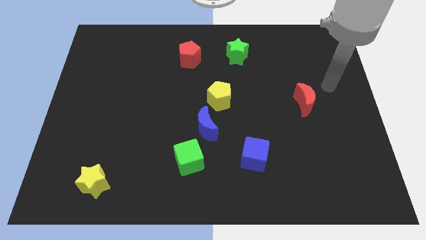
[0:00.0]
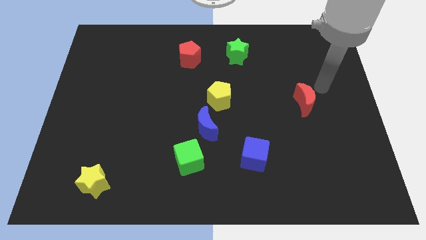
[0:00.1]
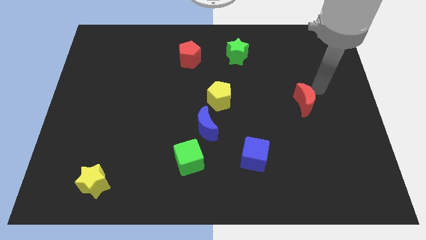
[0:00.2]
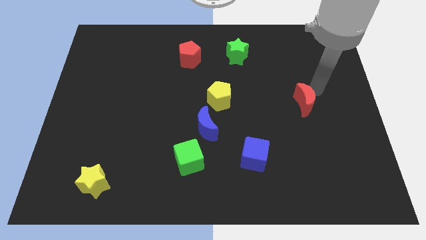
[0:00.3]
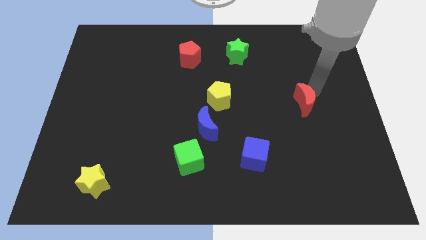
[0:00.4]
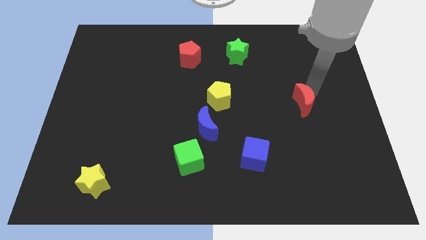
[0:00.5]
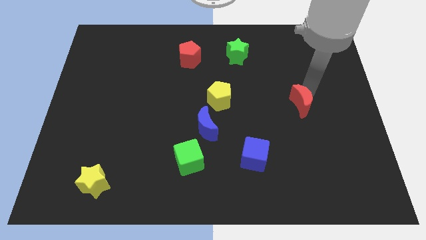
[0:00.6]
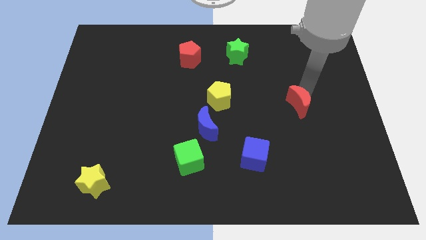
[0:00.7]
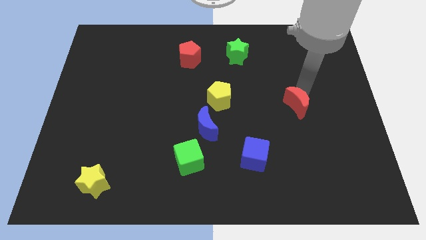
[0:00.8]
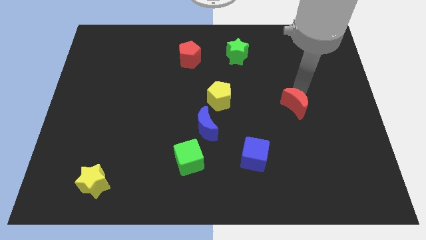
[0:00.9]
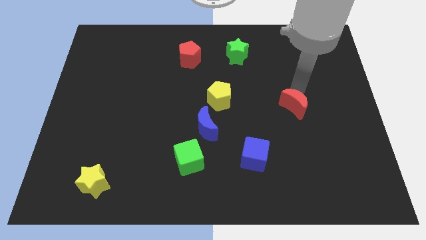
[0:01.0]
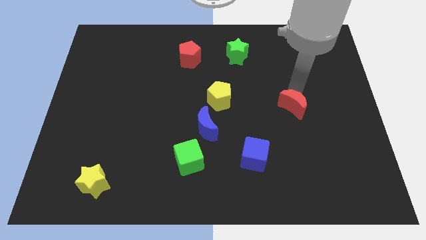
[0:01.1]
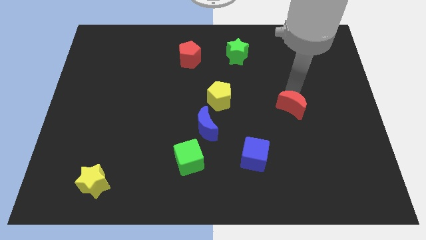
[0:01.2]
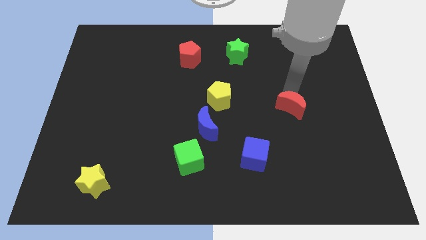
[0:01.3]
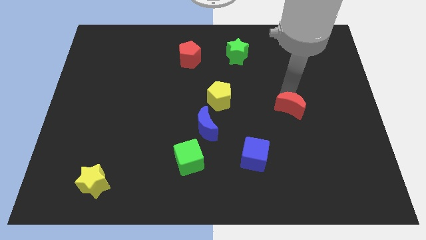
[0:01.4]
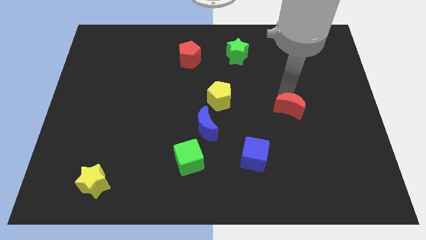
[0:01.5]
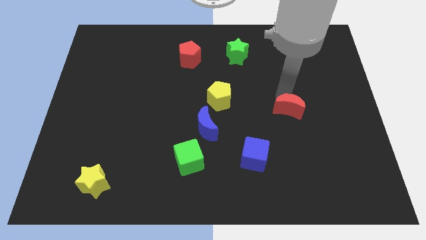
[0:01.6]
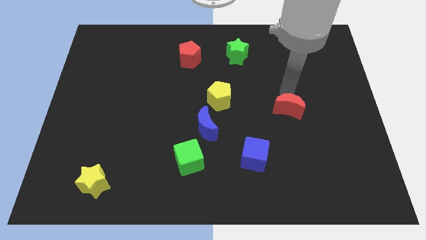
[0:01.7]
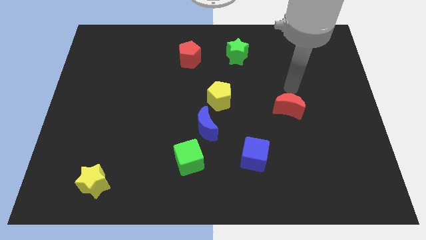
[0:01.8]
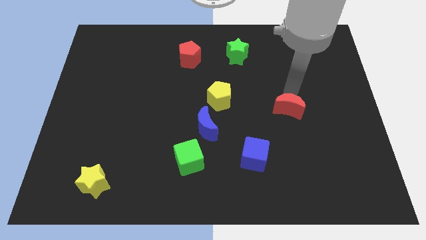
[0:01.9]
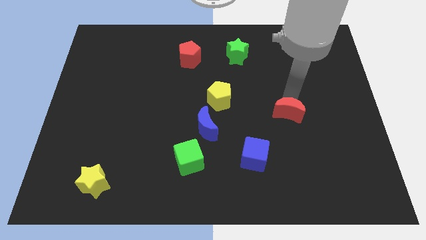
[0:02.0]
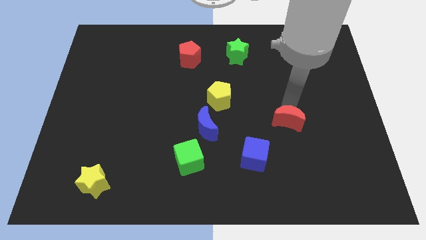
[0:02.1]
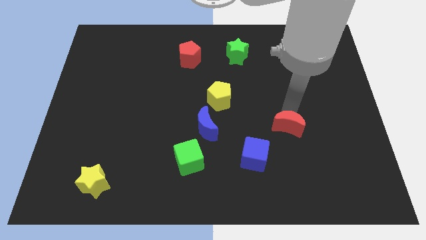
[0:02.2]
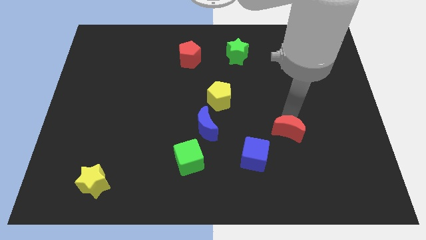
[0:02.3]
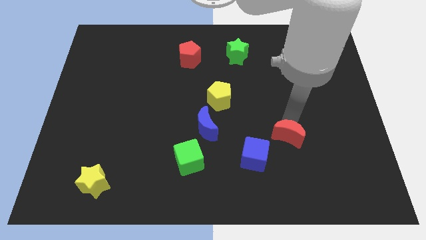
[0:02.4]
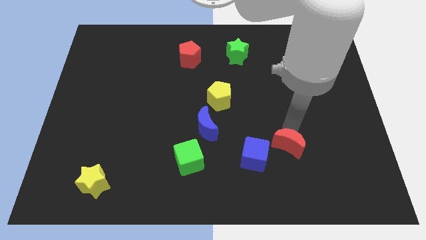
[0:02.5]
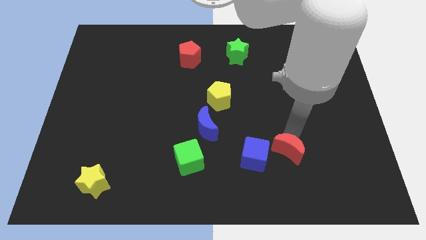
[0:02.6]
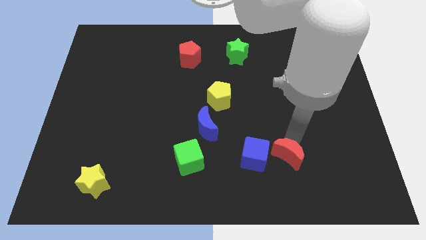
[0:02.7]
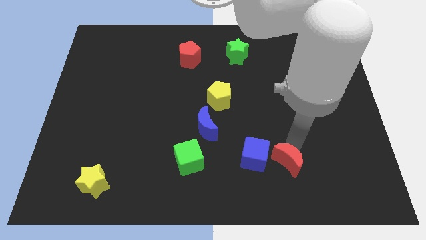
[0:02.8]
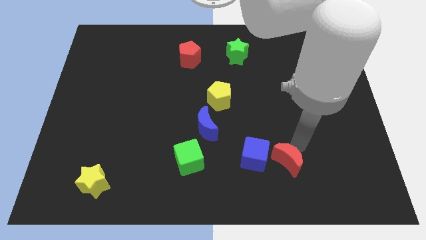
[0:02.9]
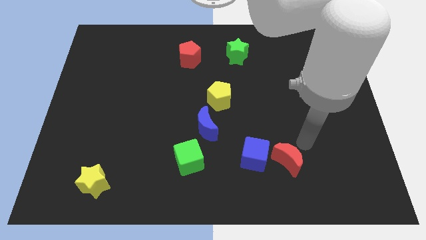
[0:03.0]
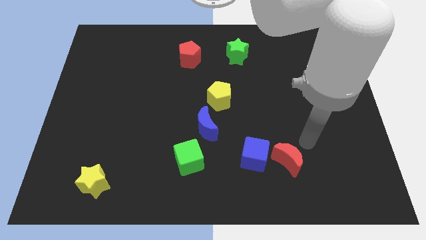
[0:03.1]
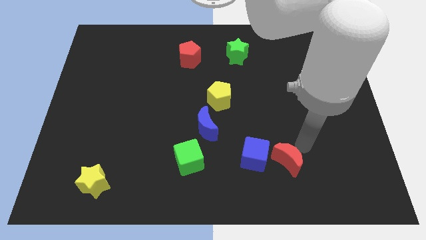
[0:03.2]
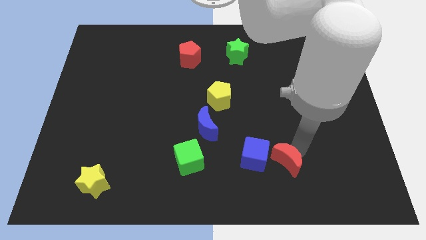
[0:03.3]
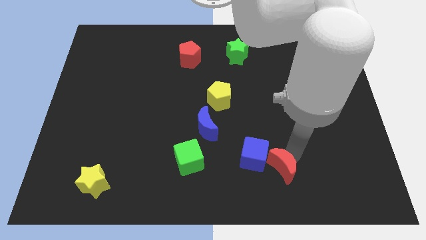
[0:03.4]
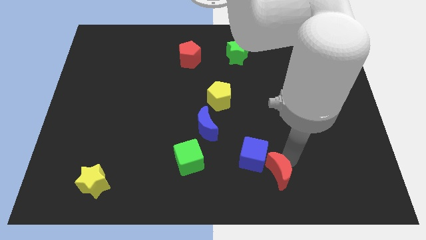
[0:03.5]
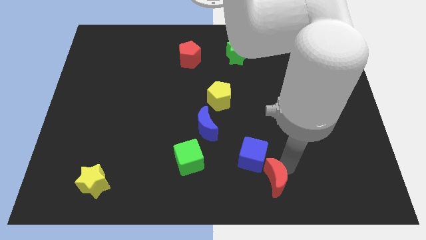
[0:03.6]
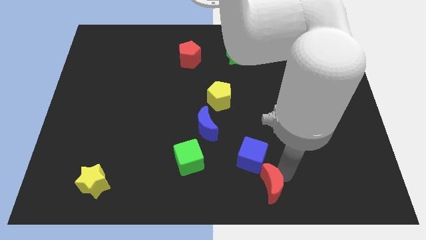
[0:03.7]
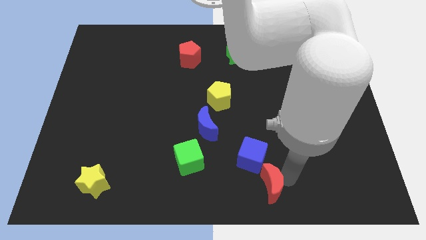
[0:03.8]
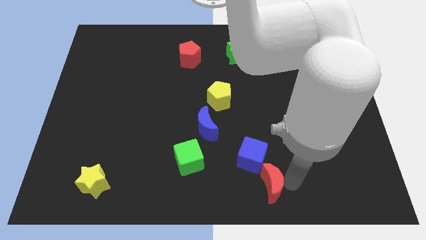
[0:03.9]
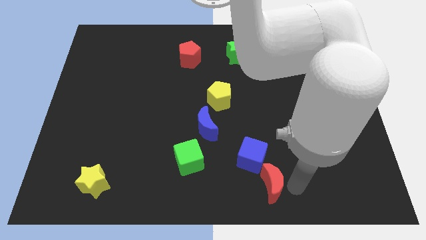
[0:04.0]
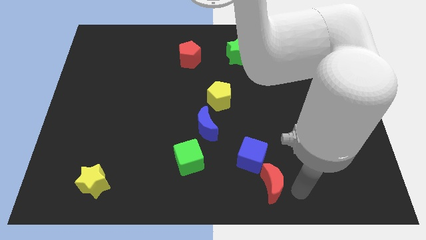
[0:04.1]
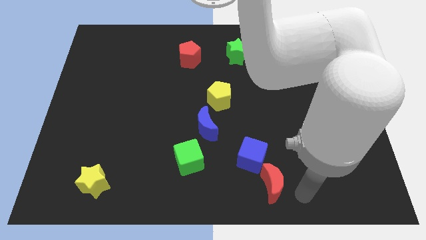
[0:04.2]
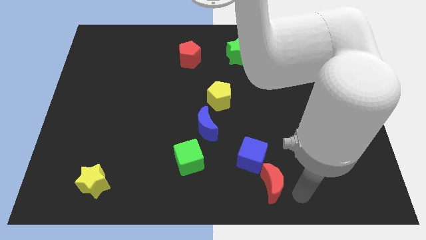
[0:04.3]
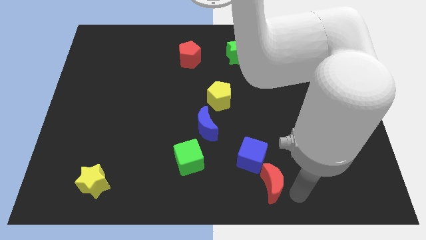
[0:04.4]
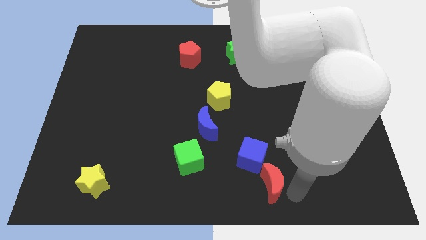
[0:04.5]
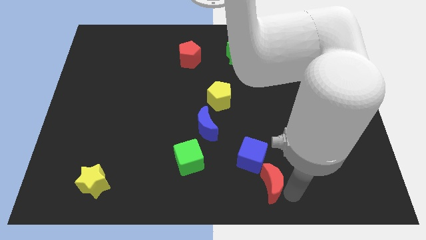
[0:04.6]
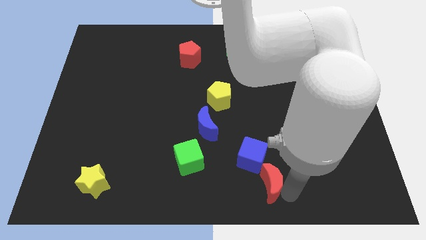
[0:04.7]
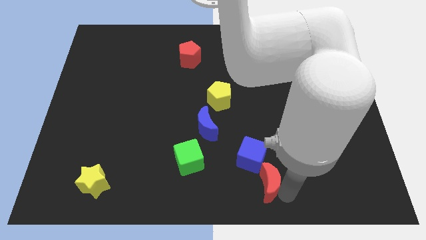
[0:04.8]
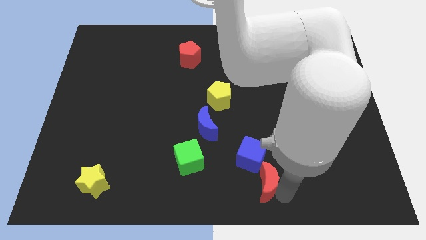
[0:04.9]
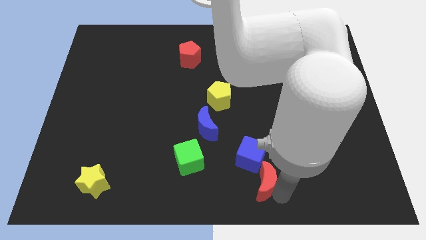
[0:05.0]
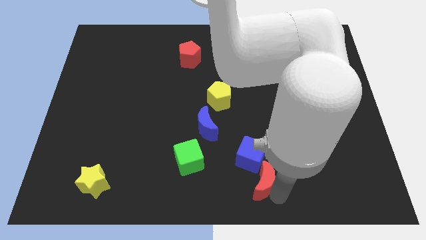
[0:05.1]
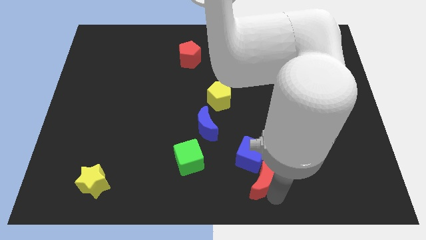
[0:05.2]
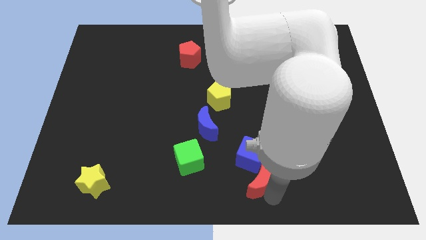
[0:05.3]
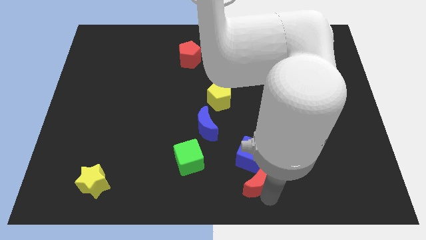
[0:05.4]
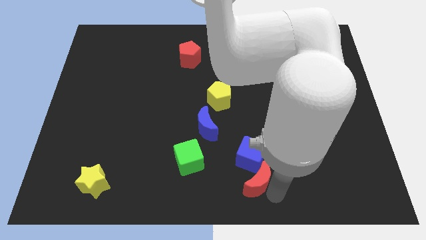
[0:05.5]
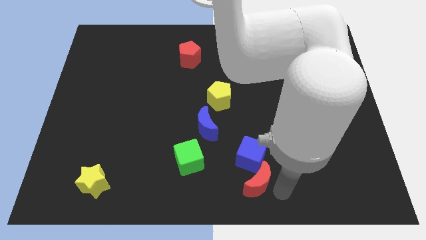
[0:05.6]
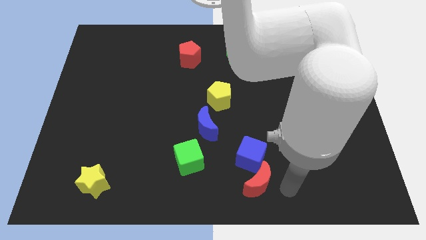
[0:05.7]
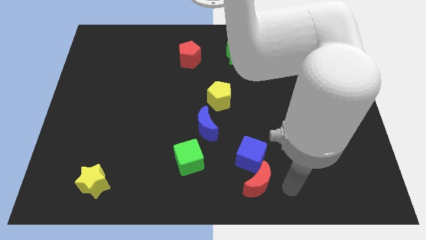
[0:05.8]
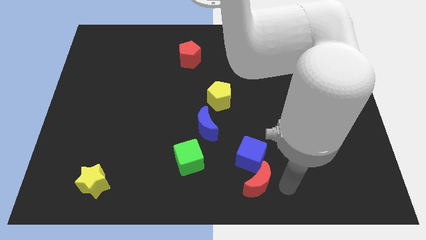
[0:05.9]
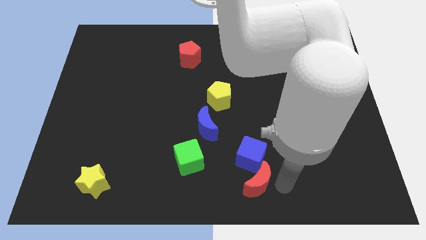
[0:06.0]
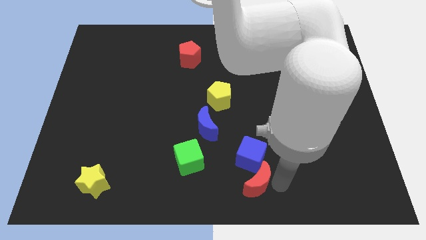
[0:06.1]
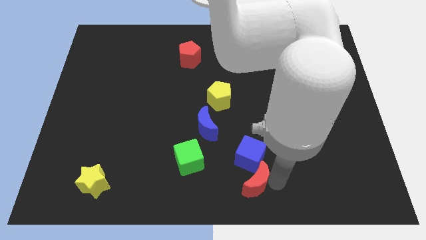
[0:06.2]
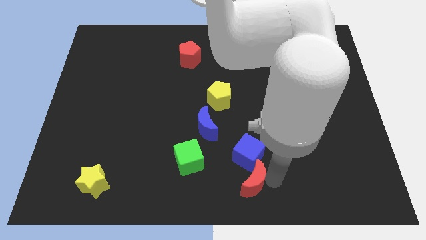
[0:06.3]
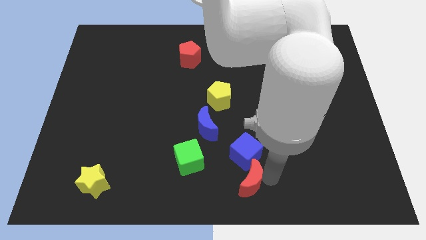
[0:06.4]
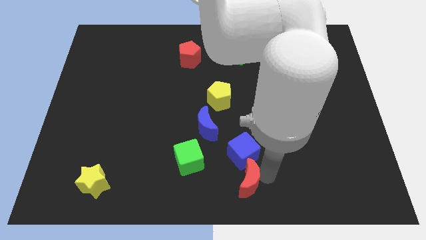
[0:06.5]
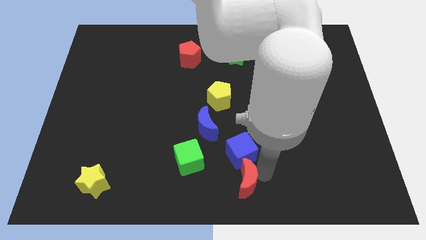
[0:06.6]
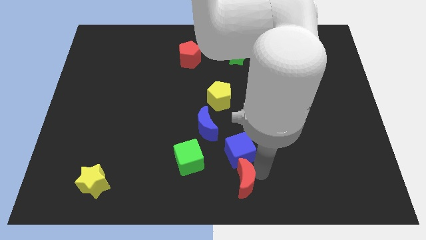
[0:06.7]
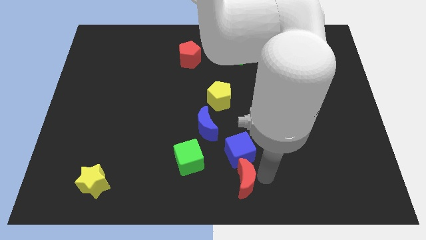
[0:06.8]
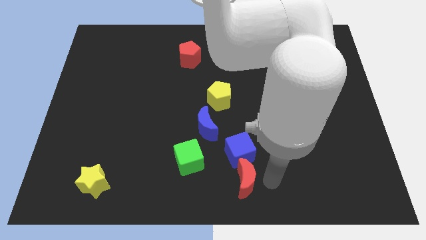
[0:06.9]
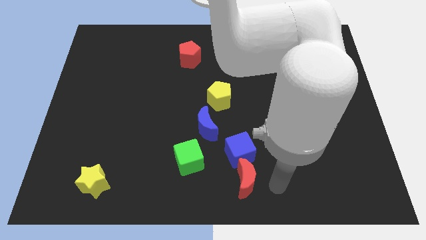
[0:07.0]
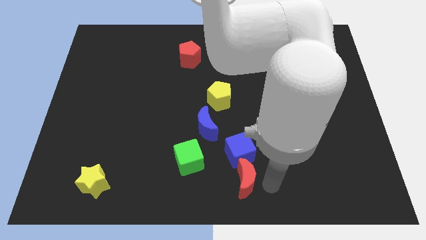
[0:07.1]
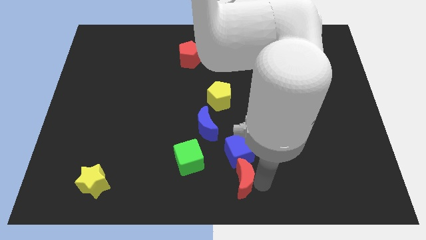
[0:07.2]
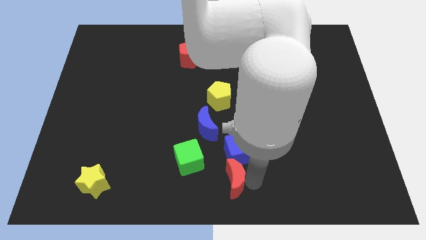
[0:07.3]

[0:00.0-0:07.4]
push the red moon diagonally down and to the left of the blue cube

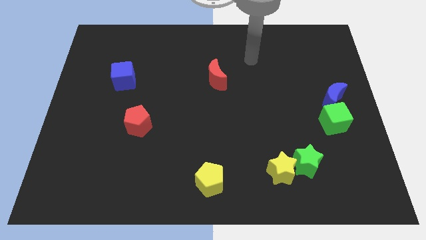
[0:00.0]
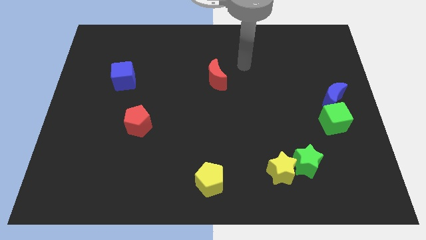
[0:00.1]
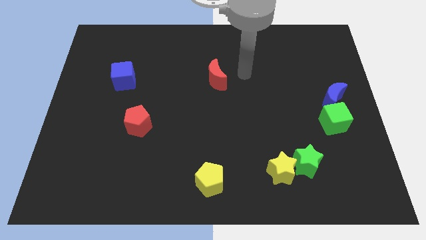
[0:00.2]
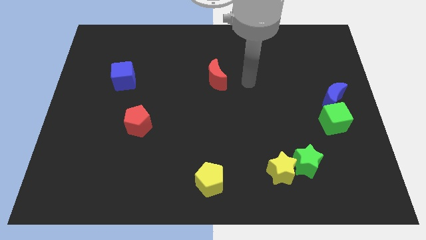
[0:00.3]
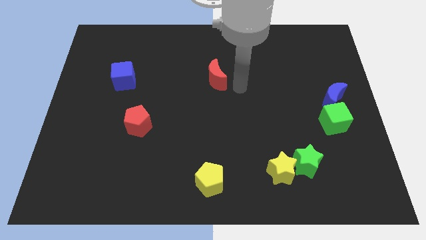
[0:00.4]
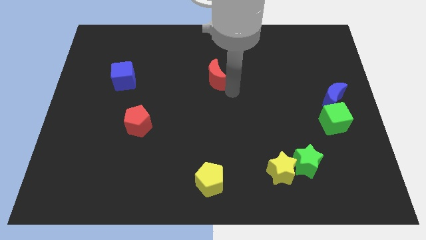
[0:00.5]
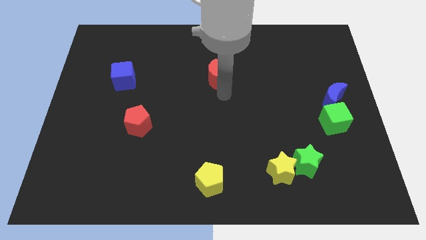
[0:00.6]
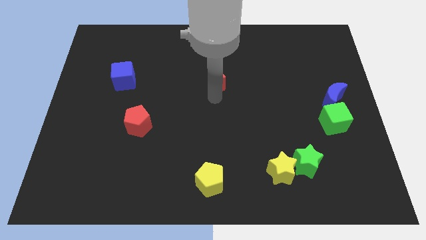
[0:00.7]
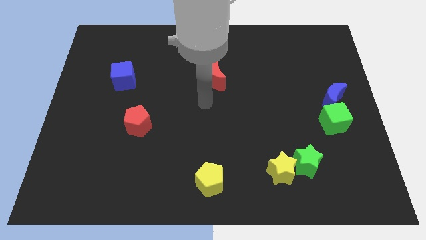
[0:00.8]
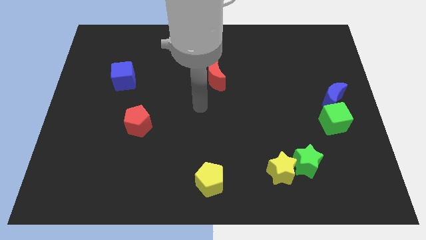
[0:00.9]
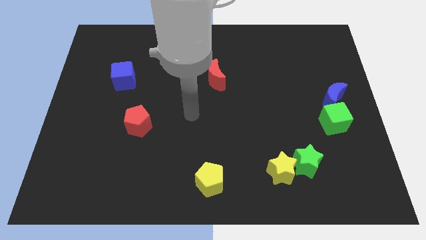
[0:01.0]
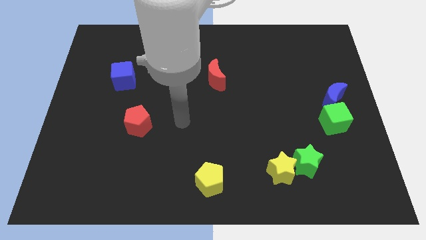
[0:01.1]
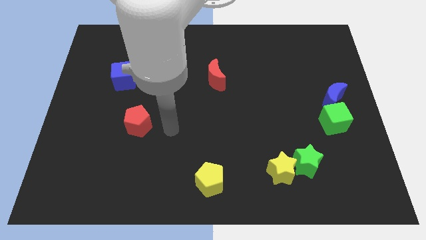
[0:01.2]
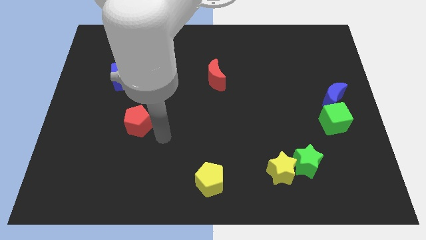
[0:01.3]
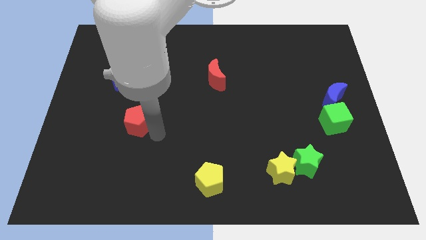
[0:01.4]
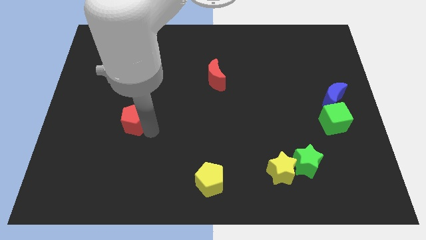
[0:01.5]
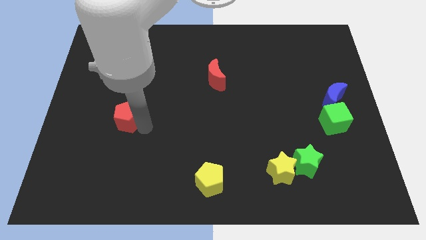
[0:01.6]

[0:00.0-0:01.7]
move the red pentagon to the bottom side of the blue cube
